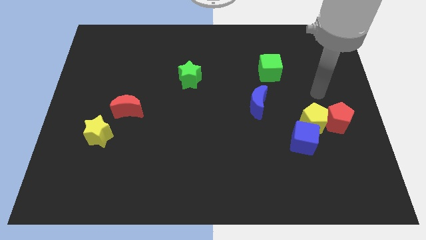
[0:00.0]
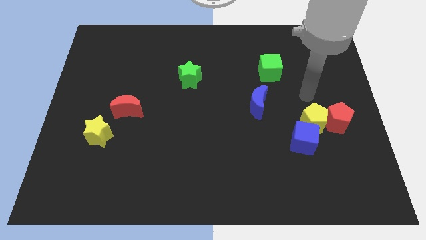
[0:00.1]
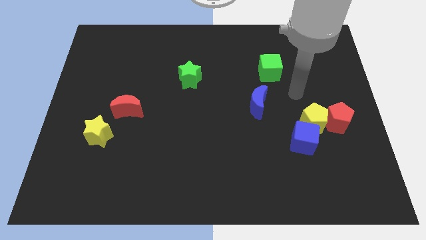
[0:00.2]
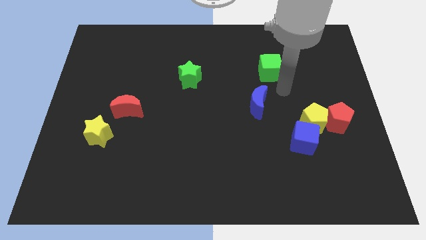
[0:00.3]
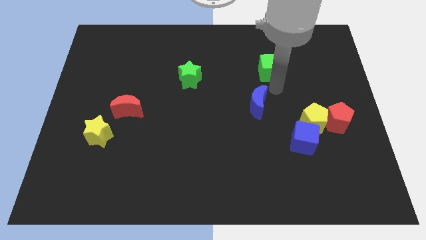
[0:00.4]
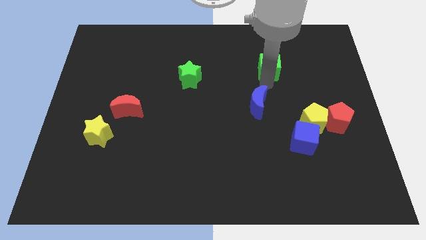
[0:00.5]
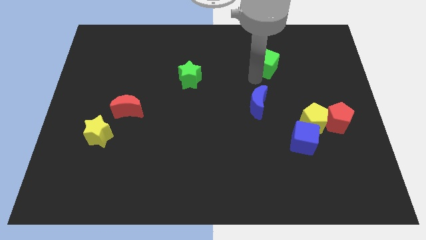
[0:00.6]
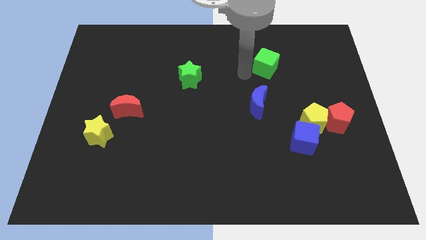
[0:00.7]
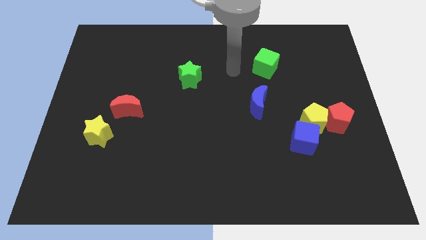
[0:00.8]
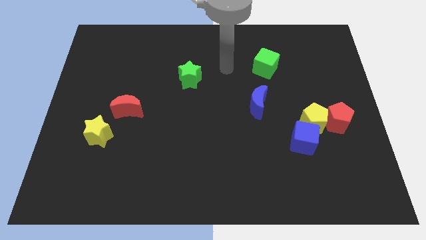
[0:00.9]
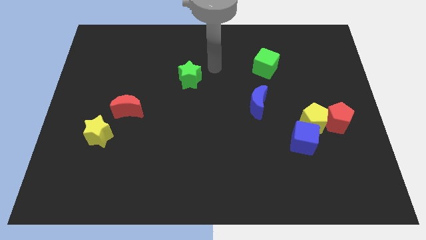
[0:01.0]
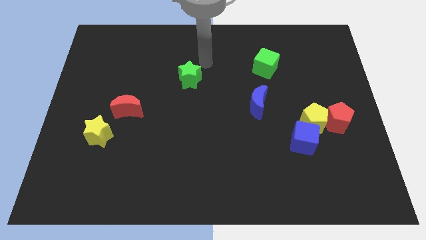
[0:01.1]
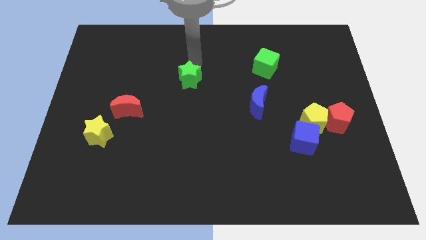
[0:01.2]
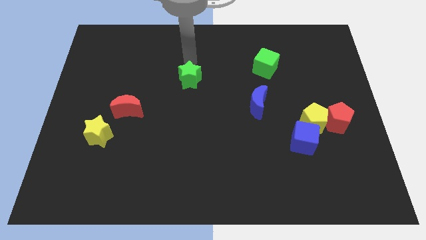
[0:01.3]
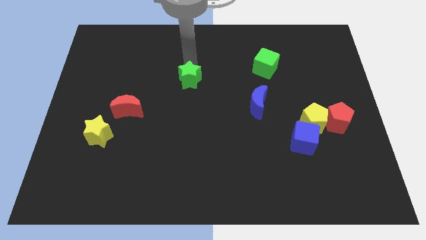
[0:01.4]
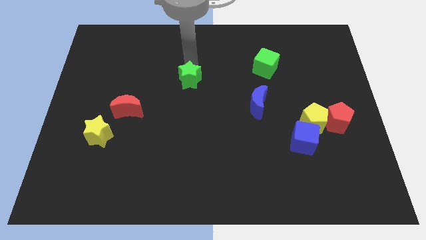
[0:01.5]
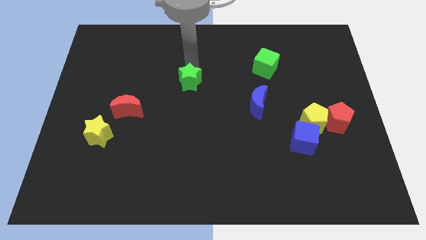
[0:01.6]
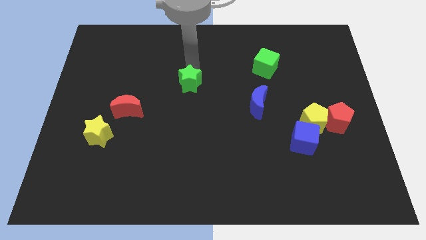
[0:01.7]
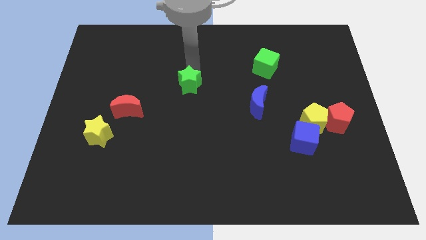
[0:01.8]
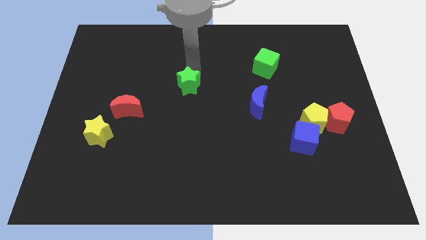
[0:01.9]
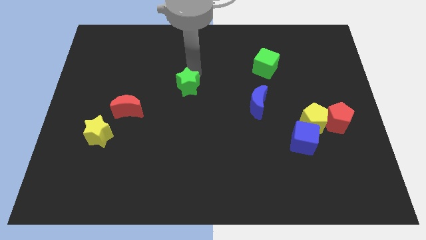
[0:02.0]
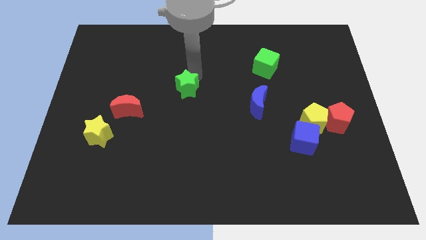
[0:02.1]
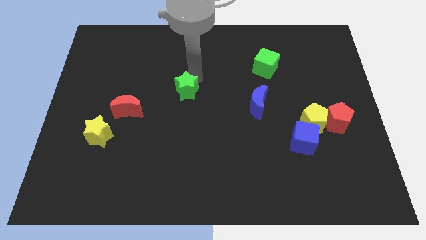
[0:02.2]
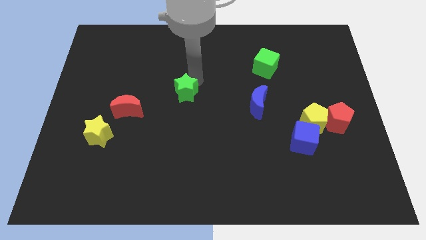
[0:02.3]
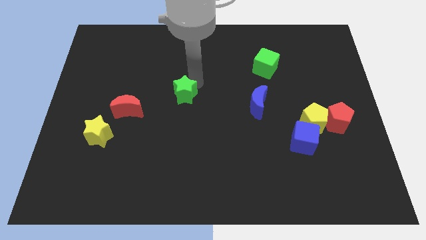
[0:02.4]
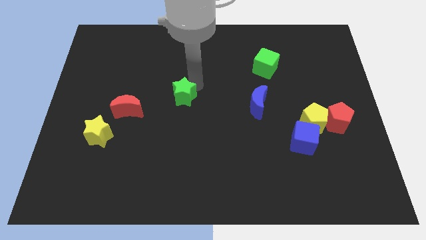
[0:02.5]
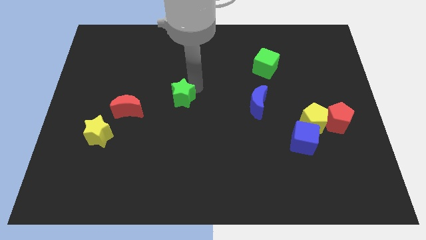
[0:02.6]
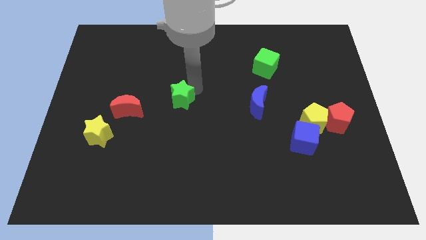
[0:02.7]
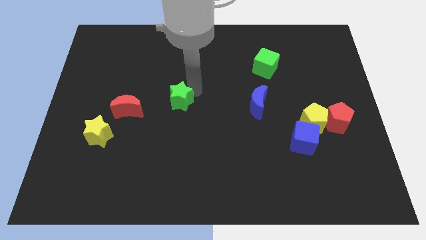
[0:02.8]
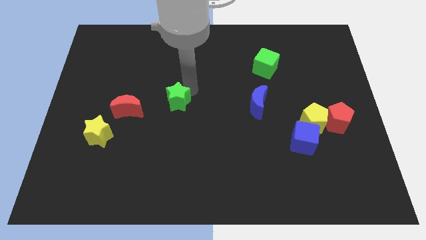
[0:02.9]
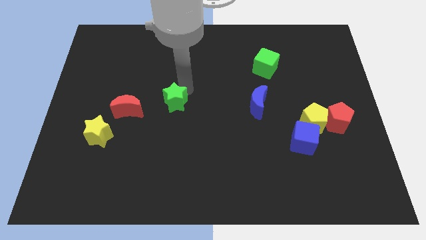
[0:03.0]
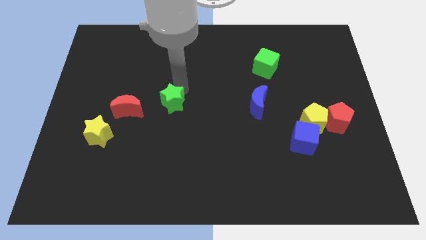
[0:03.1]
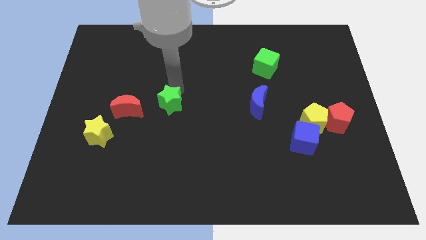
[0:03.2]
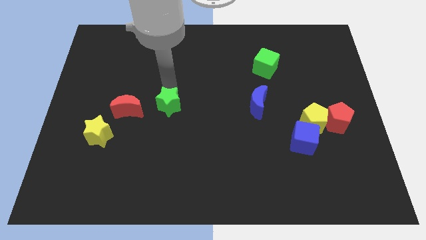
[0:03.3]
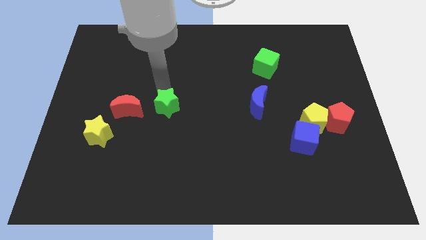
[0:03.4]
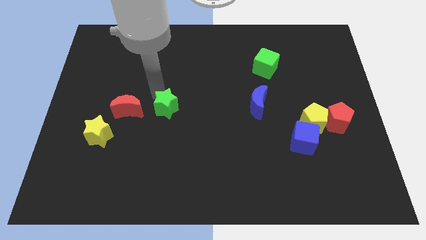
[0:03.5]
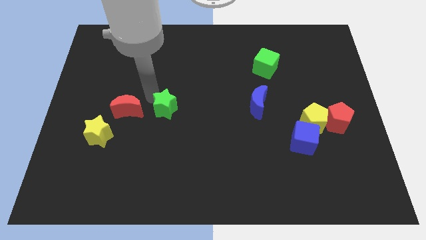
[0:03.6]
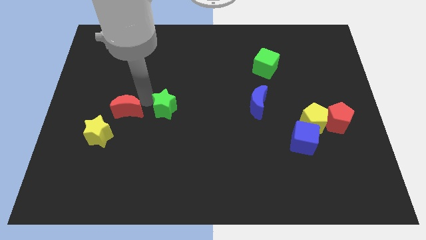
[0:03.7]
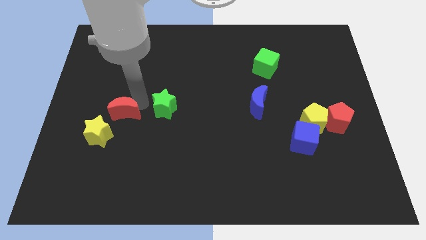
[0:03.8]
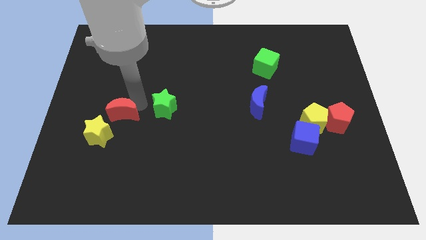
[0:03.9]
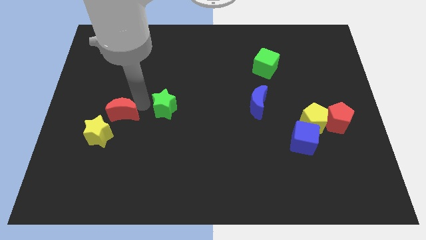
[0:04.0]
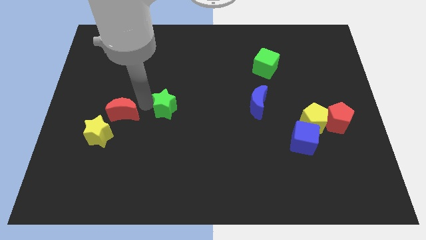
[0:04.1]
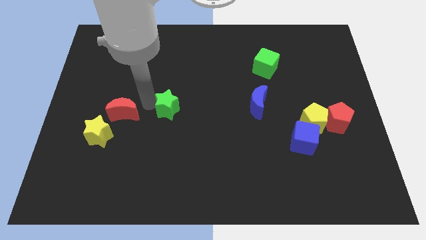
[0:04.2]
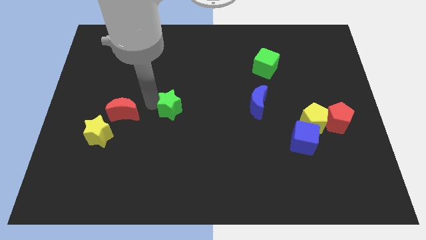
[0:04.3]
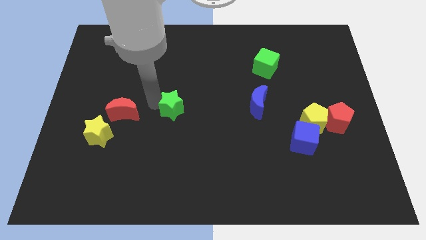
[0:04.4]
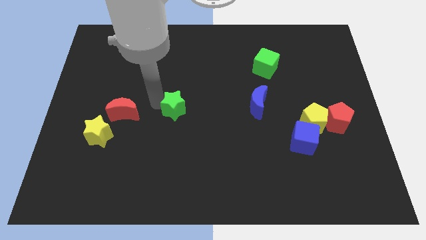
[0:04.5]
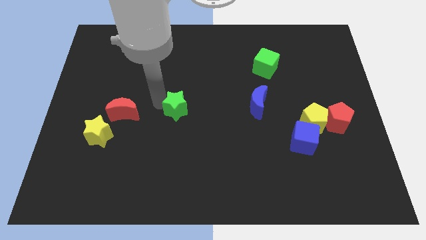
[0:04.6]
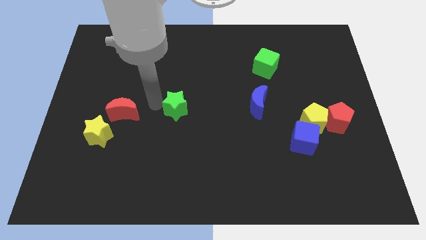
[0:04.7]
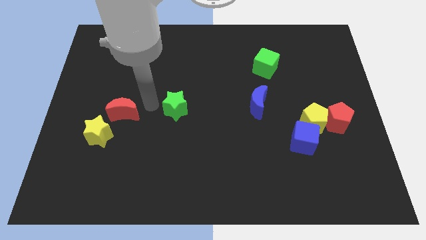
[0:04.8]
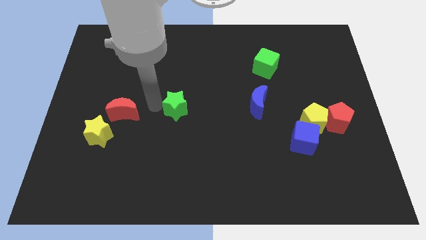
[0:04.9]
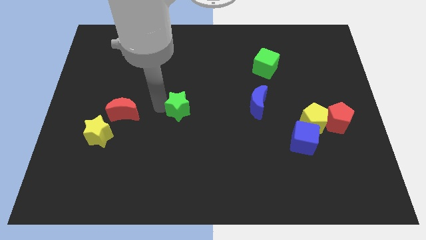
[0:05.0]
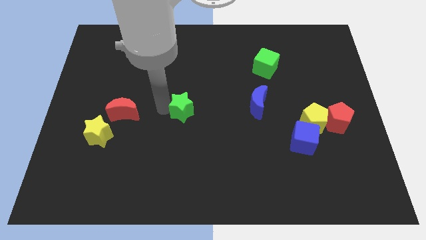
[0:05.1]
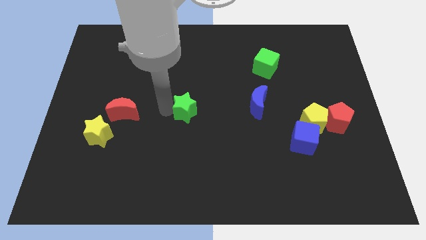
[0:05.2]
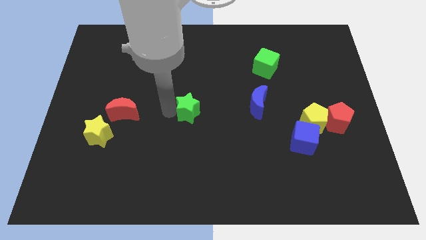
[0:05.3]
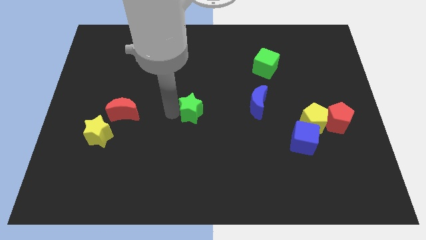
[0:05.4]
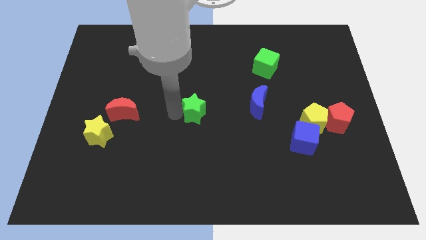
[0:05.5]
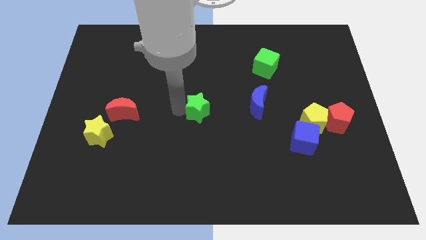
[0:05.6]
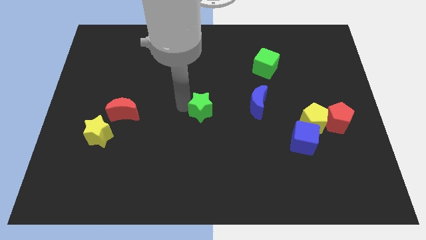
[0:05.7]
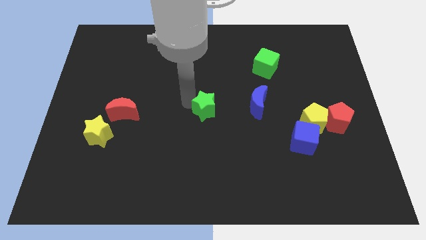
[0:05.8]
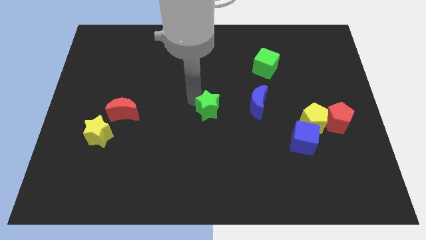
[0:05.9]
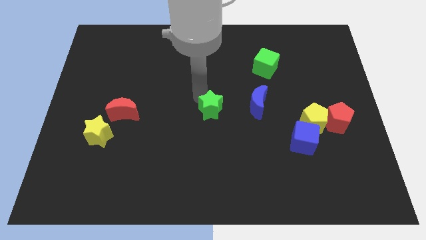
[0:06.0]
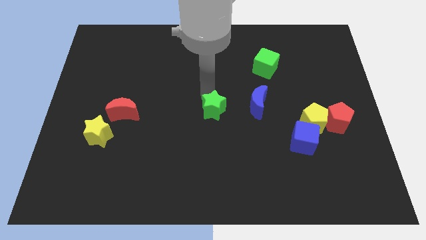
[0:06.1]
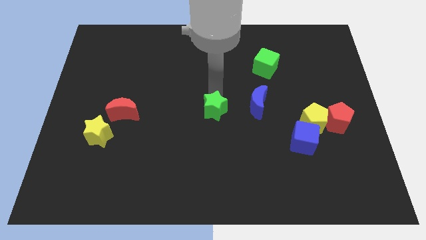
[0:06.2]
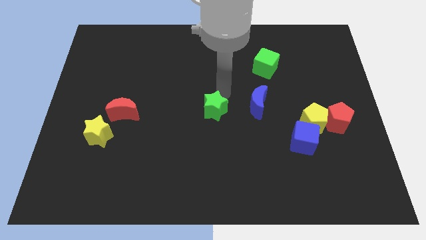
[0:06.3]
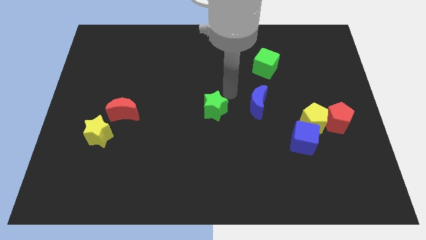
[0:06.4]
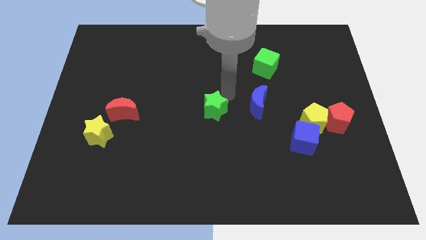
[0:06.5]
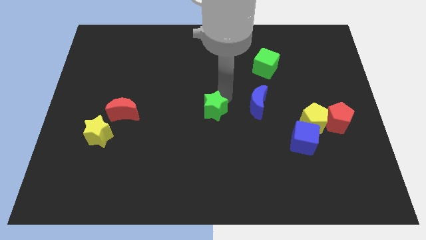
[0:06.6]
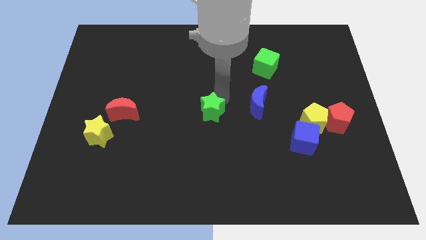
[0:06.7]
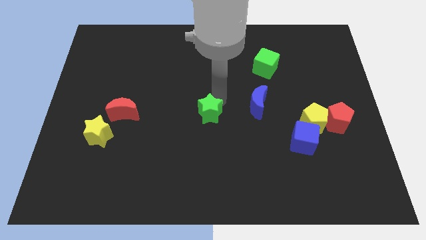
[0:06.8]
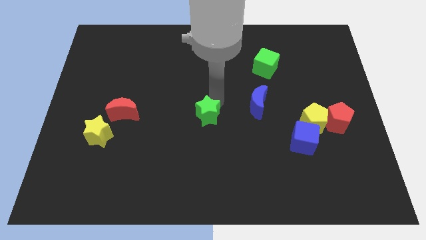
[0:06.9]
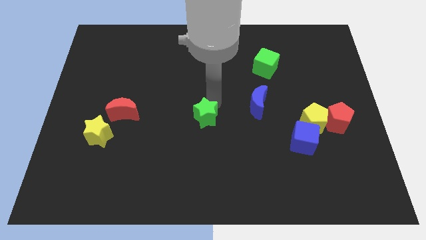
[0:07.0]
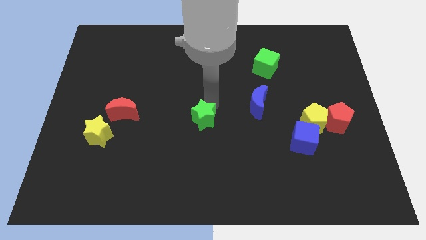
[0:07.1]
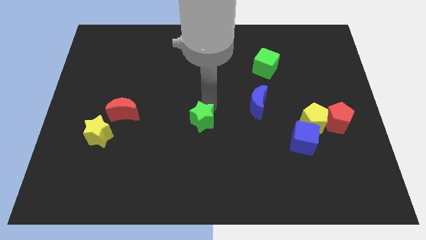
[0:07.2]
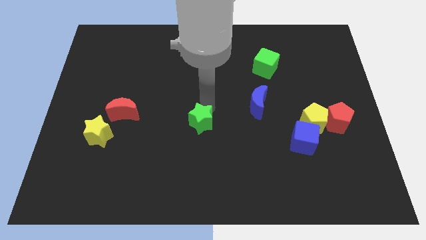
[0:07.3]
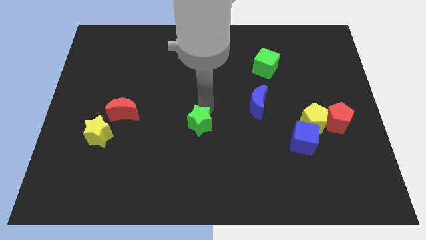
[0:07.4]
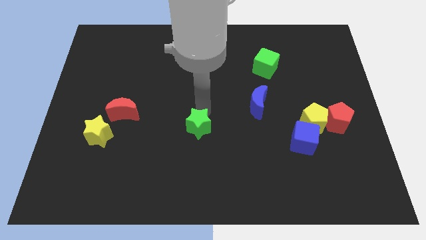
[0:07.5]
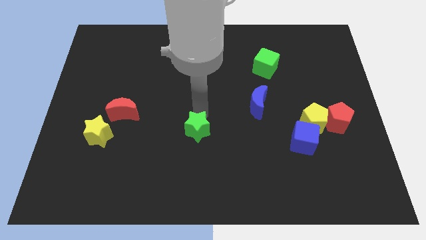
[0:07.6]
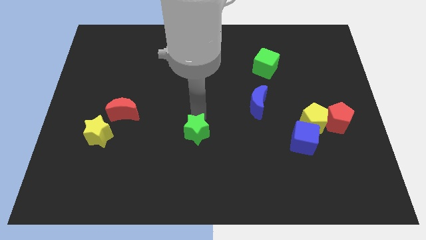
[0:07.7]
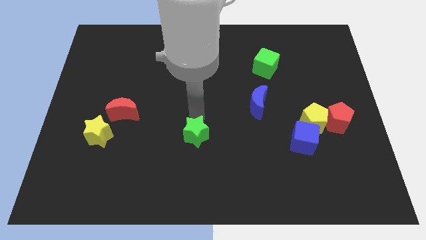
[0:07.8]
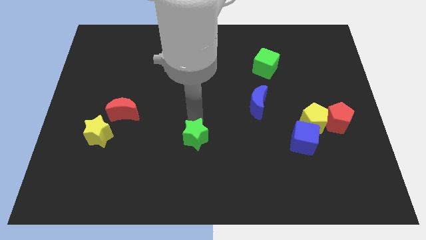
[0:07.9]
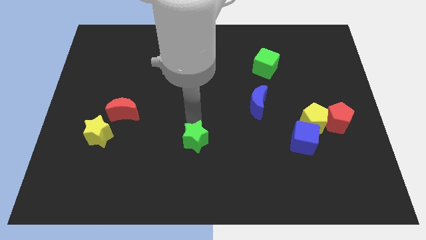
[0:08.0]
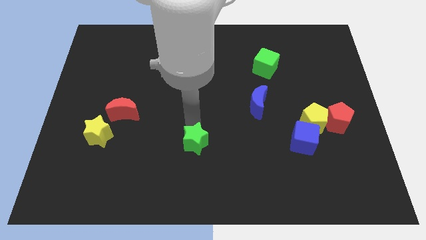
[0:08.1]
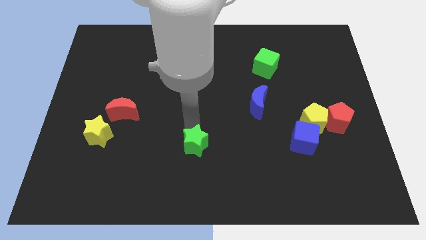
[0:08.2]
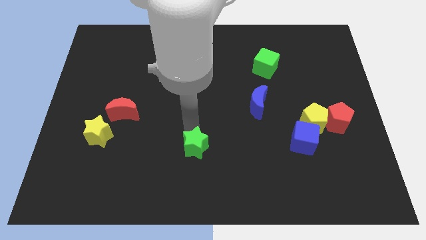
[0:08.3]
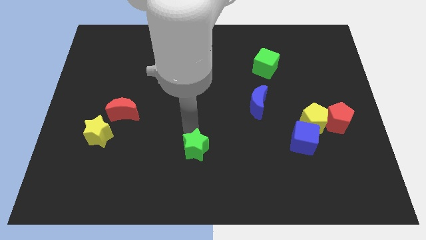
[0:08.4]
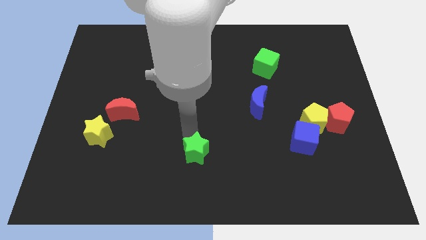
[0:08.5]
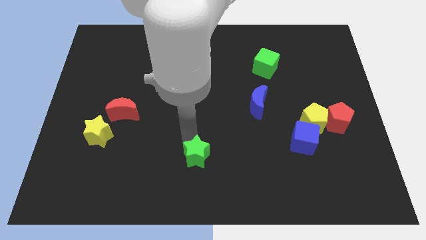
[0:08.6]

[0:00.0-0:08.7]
slide the green star to the bottom side
